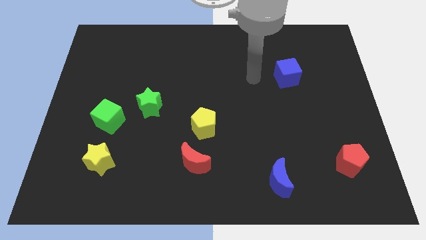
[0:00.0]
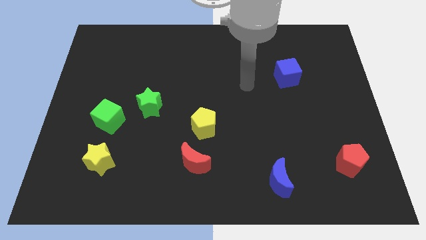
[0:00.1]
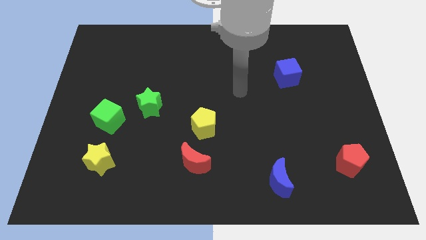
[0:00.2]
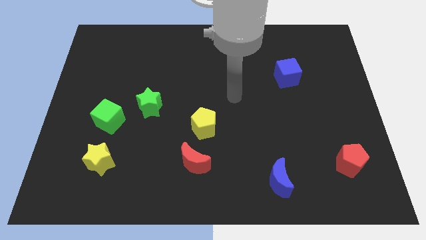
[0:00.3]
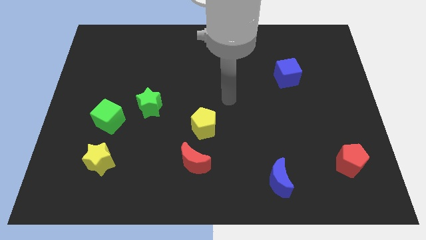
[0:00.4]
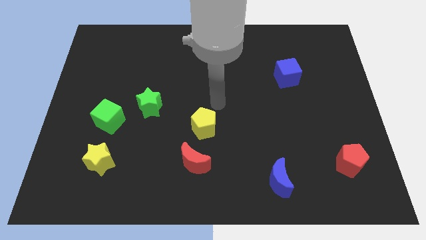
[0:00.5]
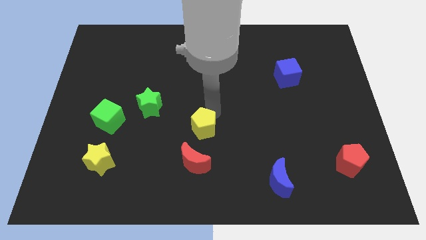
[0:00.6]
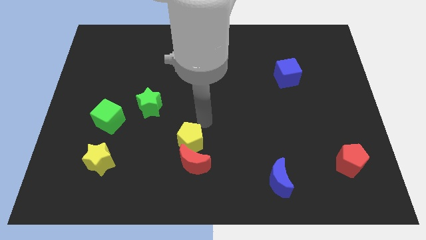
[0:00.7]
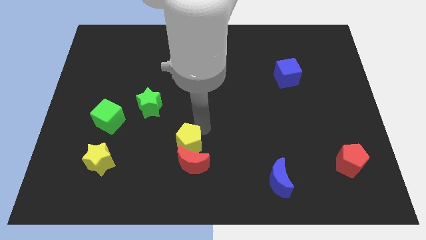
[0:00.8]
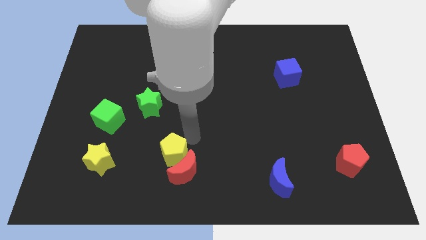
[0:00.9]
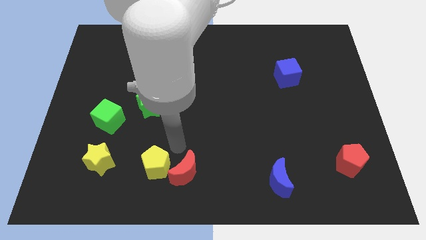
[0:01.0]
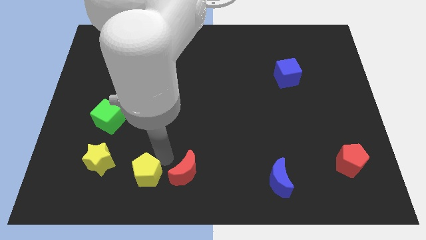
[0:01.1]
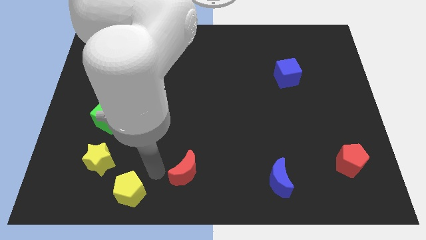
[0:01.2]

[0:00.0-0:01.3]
move the red moon away from the yellow pentagon

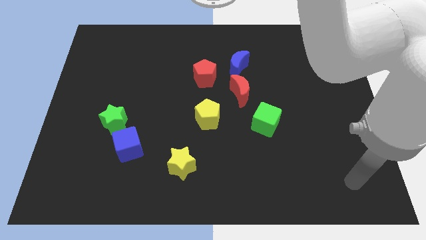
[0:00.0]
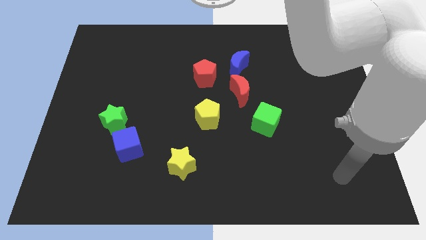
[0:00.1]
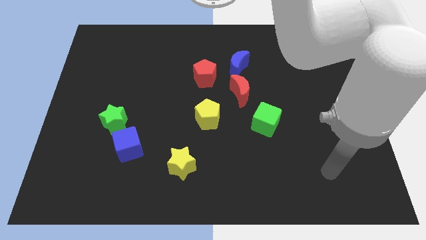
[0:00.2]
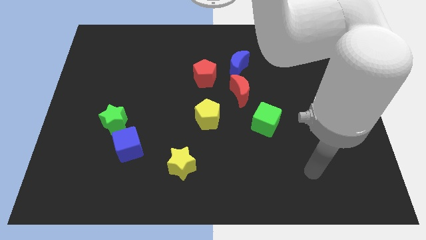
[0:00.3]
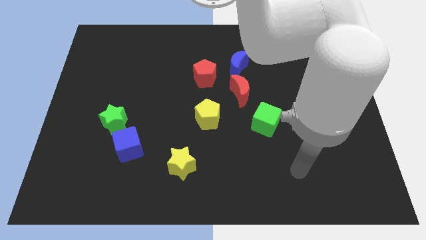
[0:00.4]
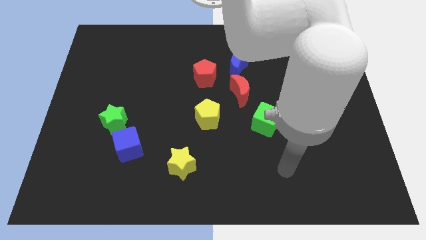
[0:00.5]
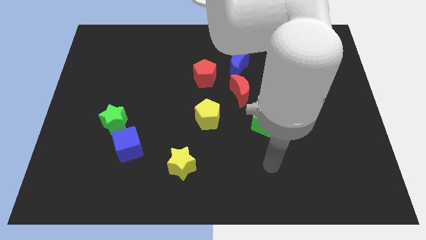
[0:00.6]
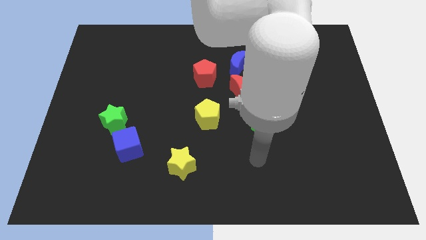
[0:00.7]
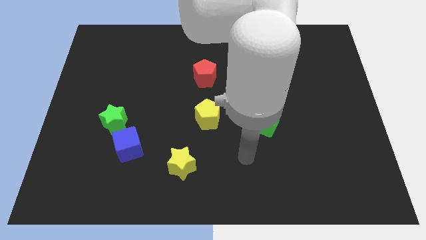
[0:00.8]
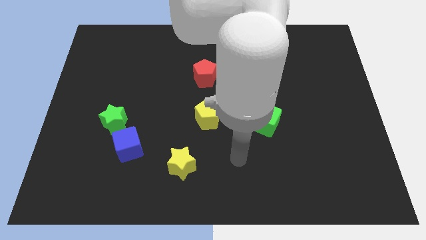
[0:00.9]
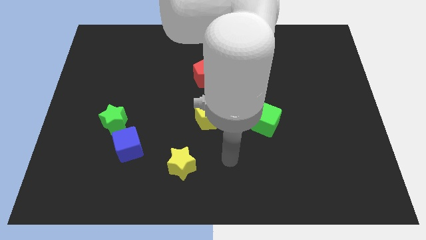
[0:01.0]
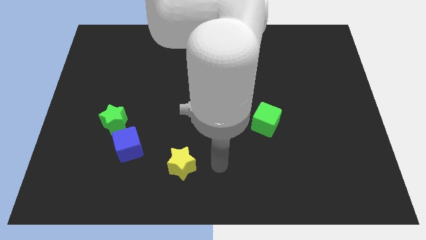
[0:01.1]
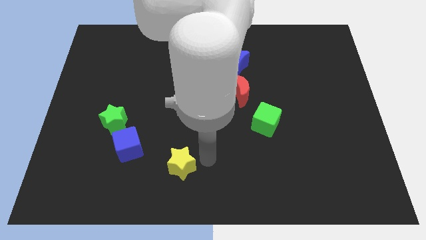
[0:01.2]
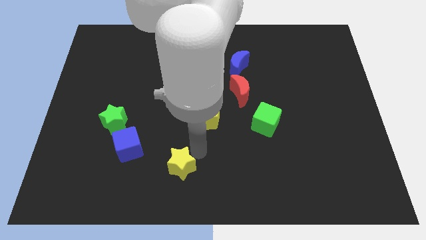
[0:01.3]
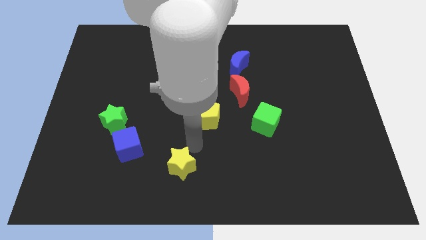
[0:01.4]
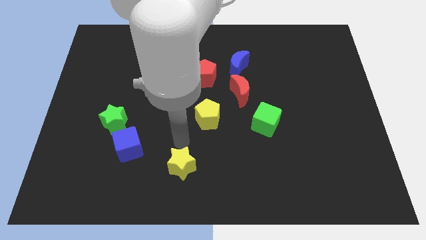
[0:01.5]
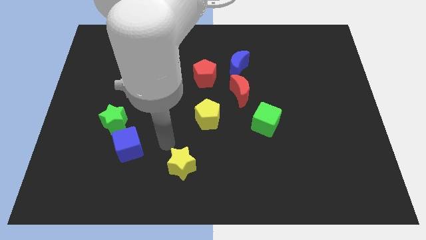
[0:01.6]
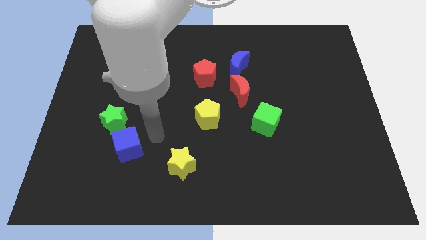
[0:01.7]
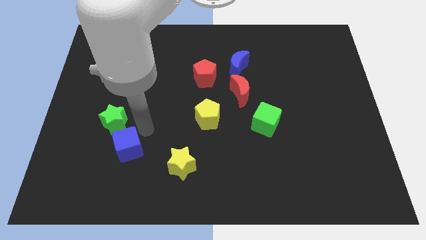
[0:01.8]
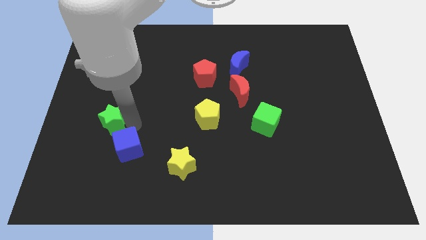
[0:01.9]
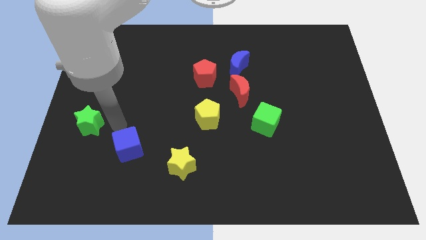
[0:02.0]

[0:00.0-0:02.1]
separate the blue cube from the green star

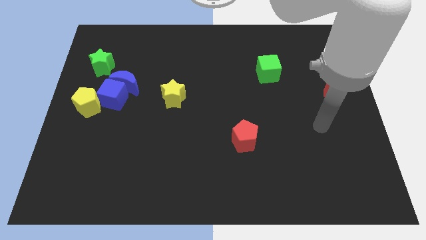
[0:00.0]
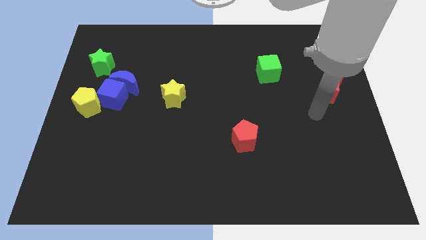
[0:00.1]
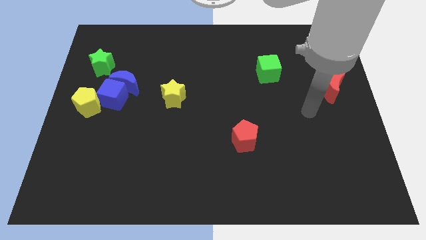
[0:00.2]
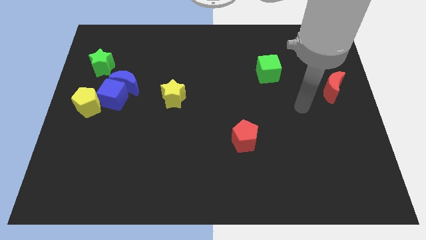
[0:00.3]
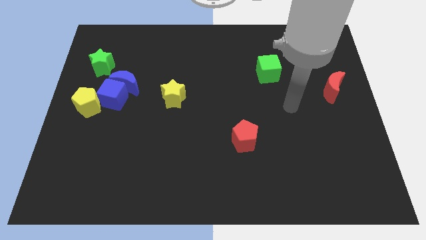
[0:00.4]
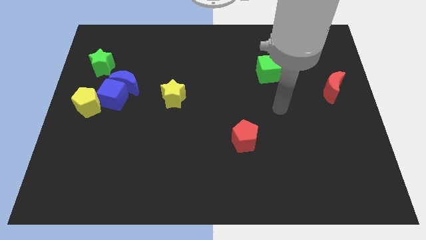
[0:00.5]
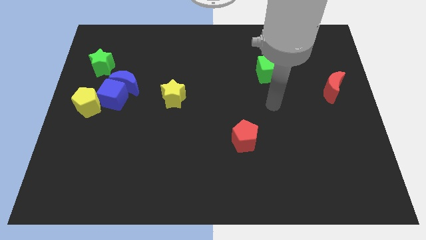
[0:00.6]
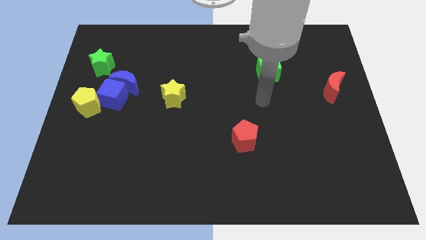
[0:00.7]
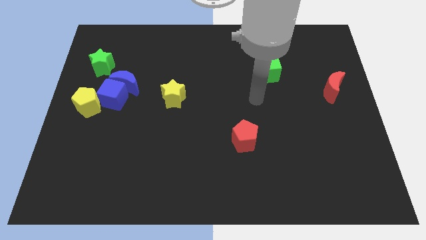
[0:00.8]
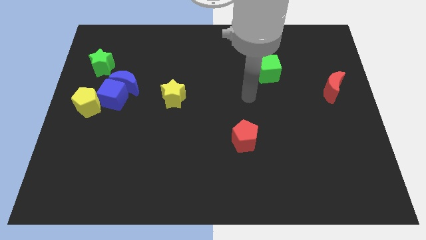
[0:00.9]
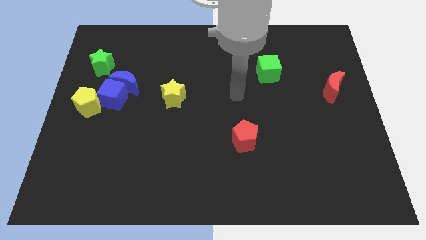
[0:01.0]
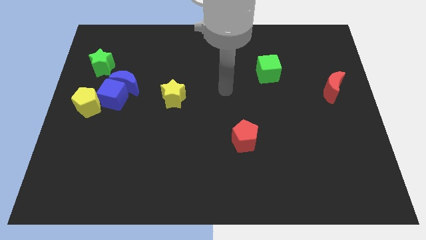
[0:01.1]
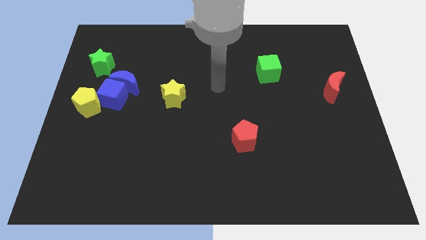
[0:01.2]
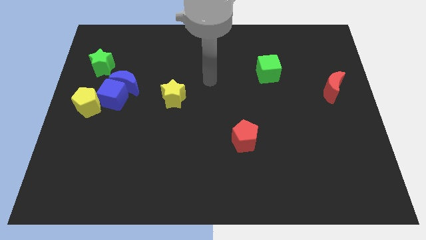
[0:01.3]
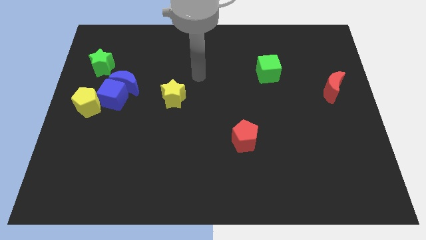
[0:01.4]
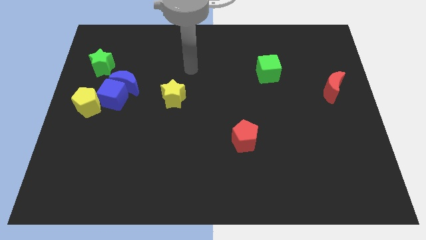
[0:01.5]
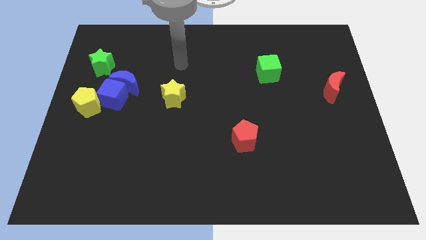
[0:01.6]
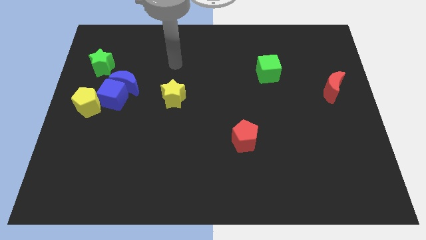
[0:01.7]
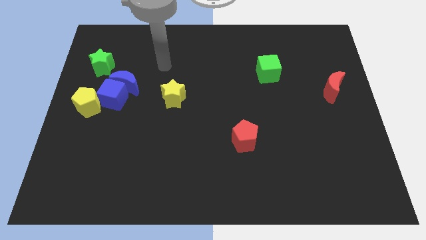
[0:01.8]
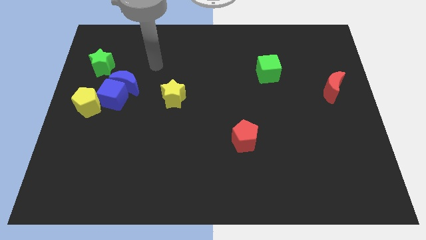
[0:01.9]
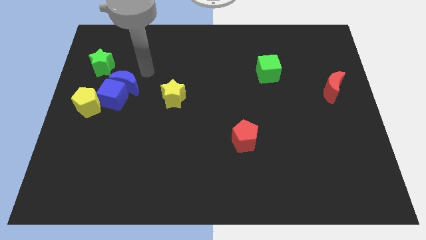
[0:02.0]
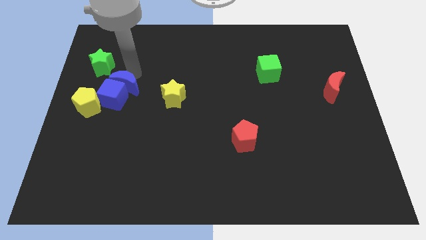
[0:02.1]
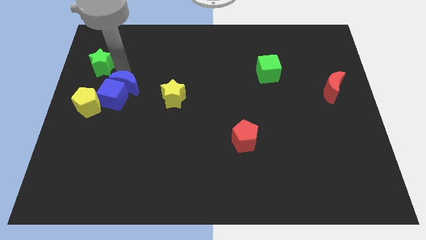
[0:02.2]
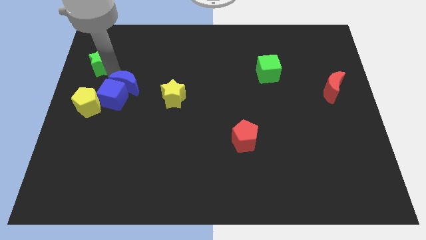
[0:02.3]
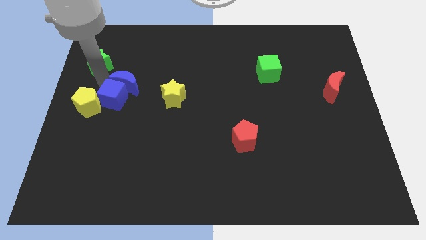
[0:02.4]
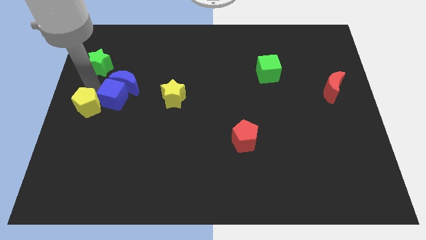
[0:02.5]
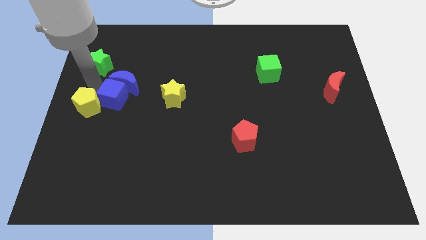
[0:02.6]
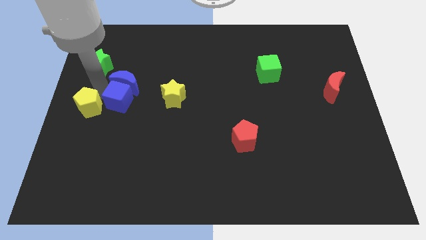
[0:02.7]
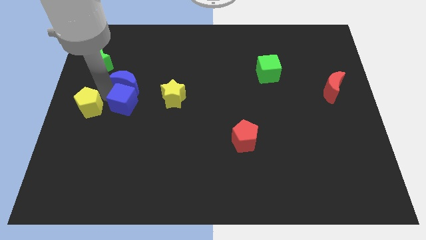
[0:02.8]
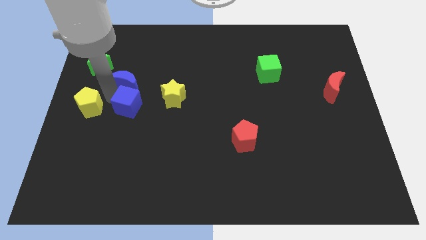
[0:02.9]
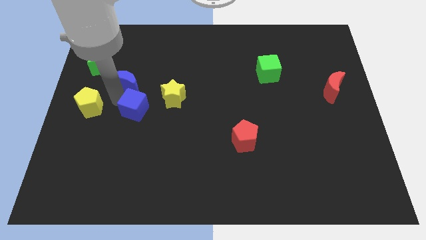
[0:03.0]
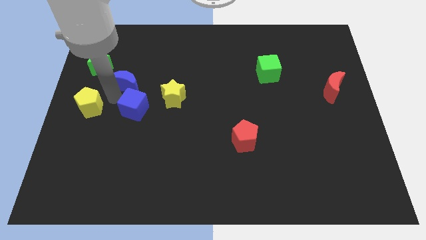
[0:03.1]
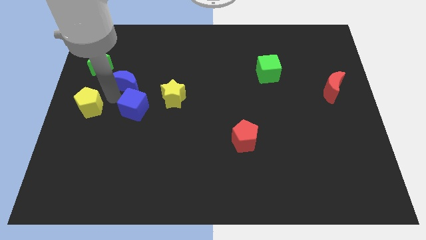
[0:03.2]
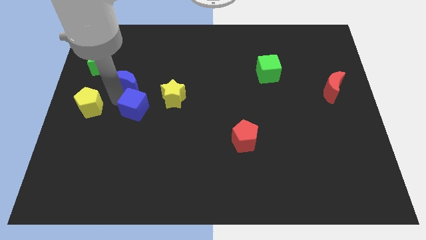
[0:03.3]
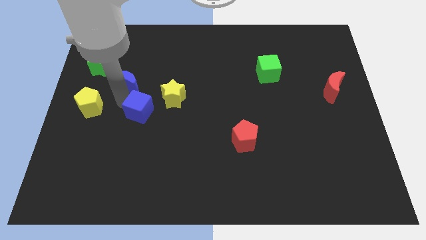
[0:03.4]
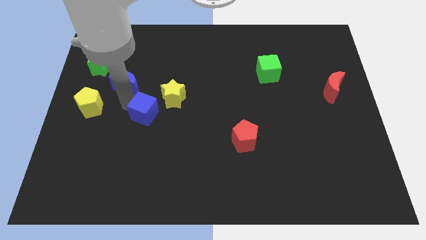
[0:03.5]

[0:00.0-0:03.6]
separate the blue cube from the blue moon and yellow pentagon

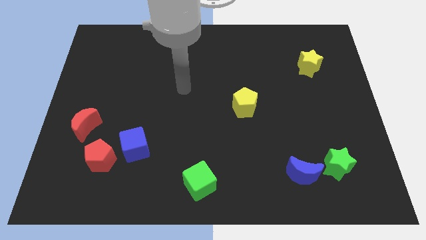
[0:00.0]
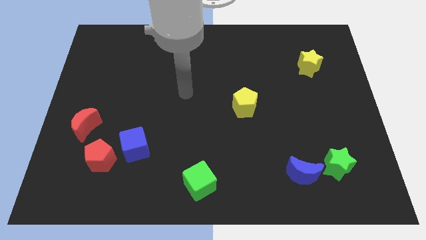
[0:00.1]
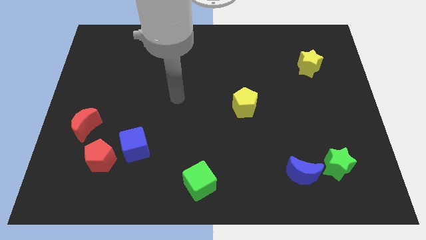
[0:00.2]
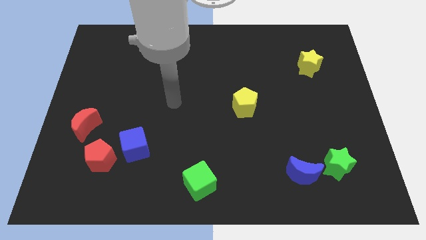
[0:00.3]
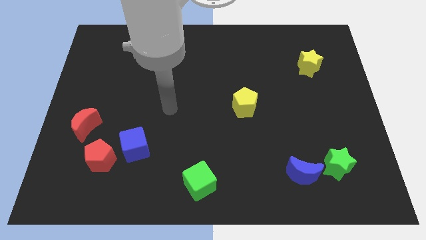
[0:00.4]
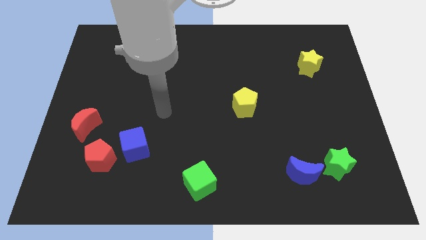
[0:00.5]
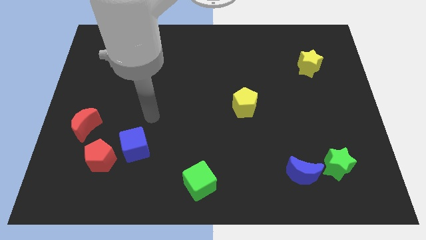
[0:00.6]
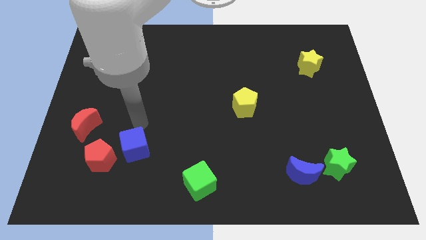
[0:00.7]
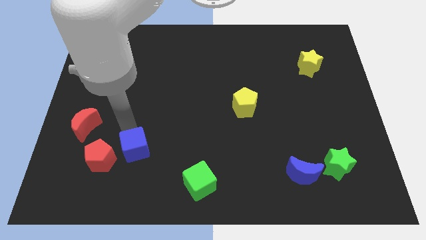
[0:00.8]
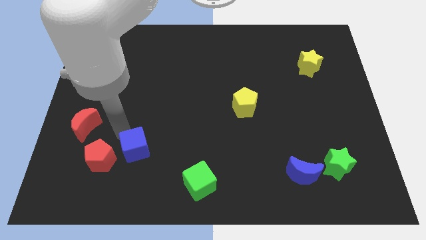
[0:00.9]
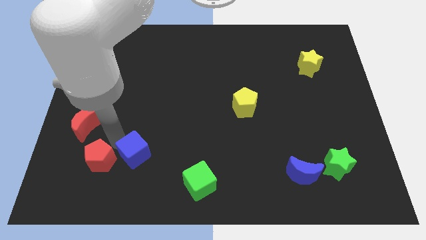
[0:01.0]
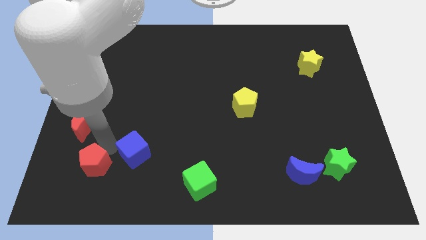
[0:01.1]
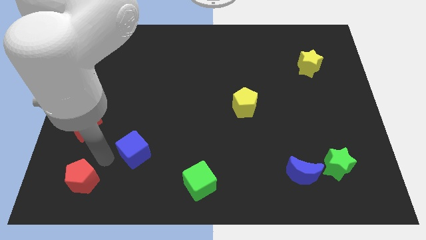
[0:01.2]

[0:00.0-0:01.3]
move the blue cube away from the red pentagon

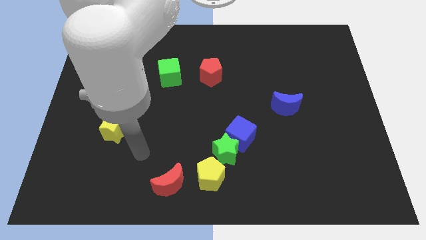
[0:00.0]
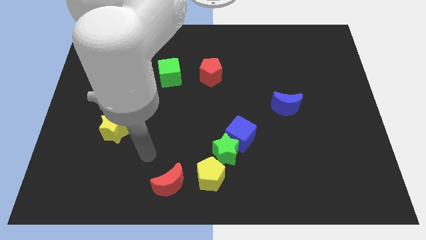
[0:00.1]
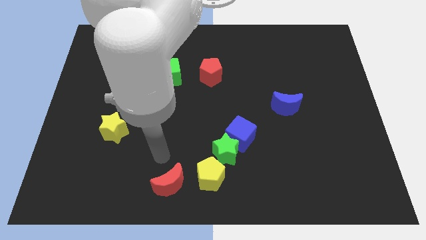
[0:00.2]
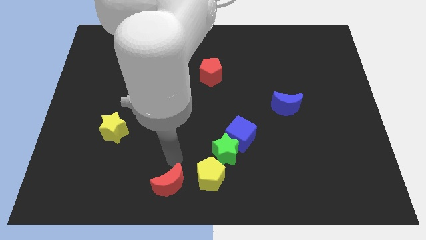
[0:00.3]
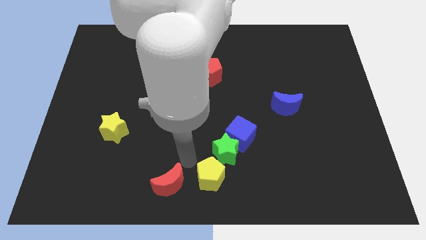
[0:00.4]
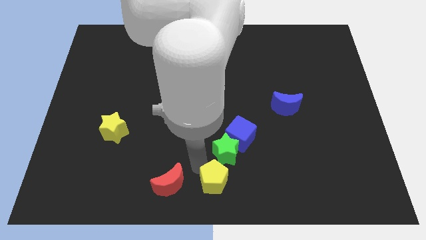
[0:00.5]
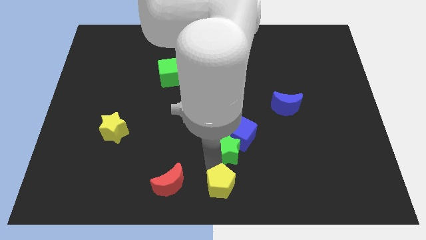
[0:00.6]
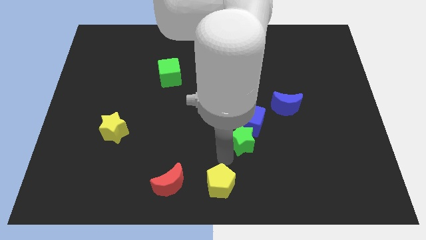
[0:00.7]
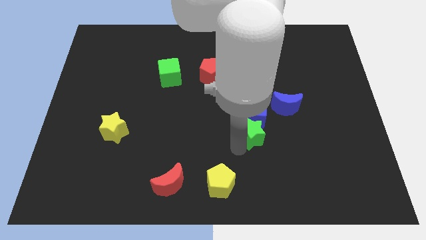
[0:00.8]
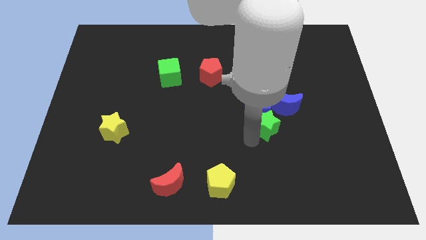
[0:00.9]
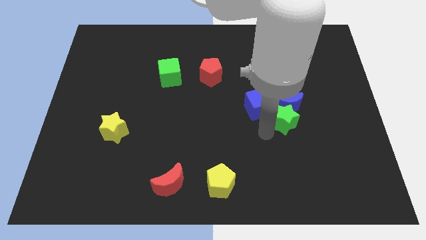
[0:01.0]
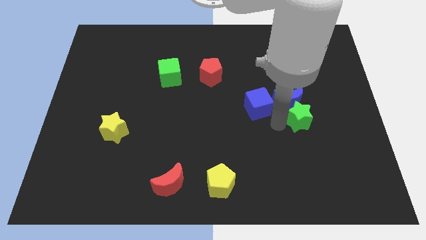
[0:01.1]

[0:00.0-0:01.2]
pull the blue cube apart from the green star
